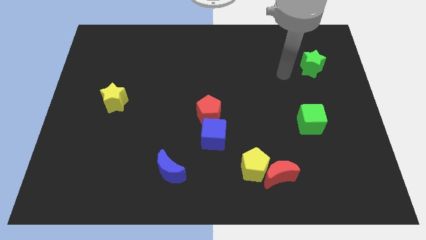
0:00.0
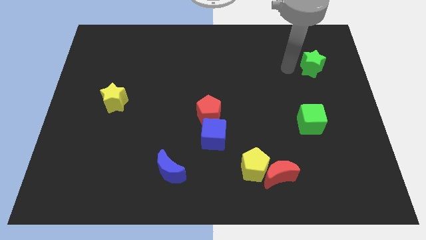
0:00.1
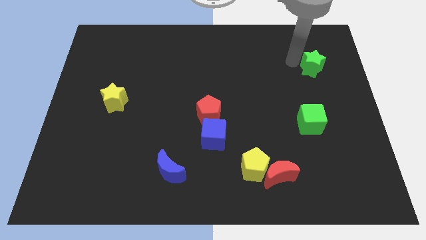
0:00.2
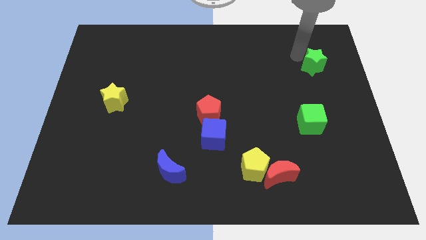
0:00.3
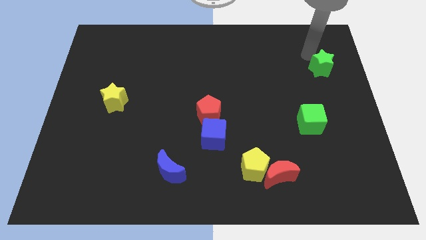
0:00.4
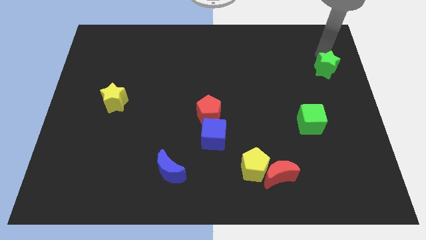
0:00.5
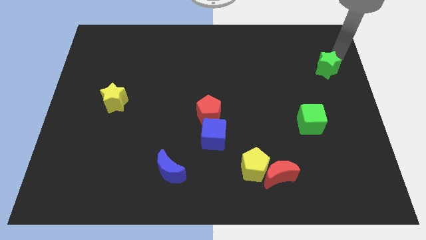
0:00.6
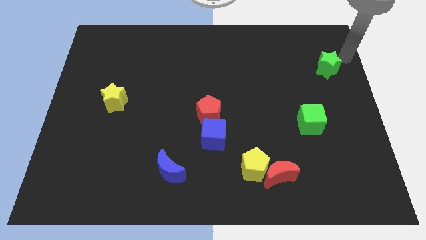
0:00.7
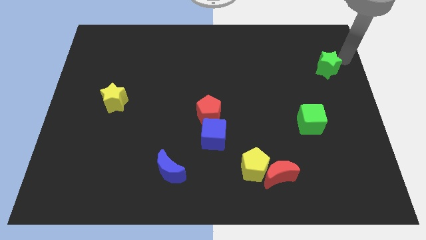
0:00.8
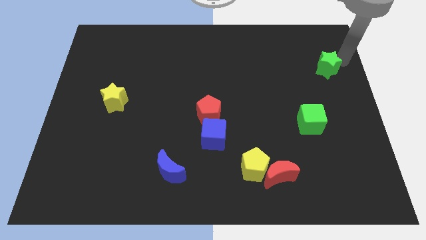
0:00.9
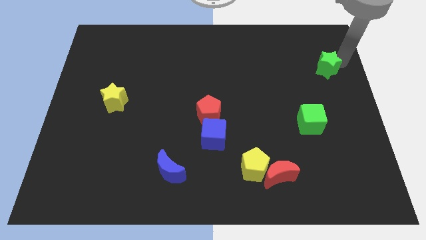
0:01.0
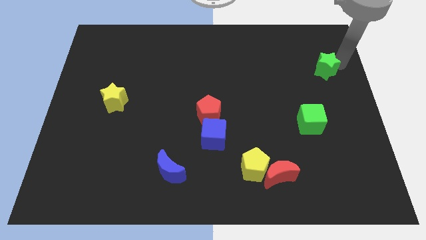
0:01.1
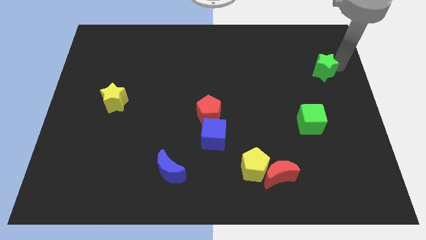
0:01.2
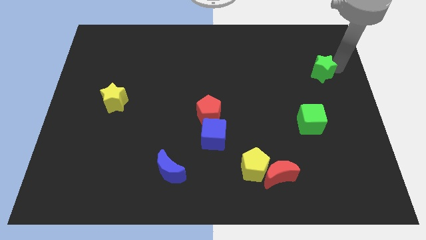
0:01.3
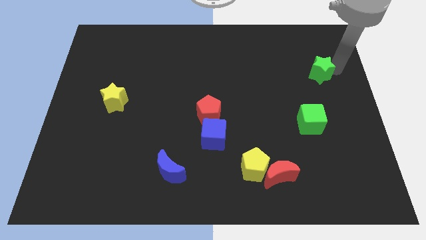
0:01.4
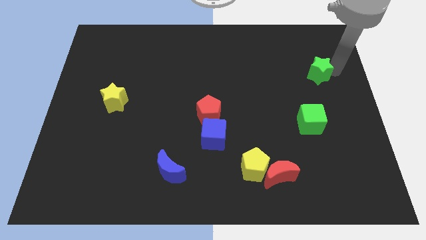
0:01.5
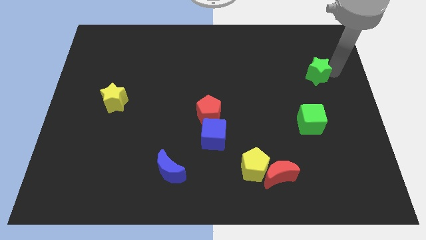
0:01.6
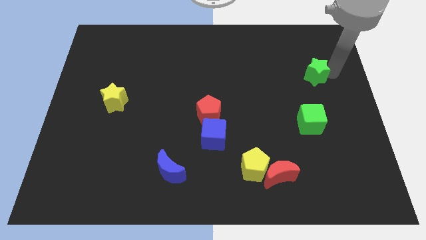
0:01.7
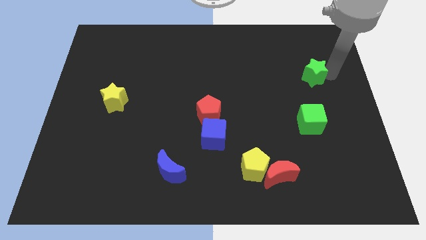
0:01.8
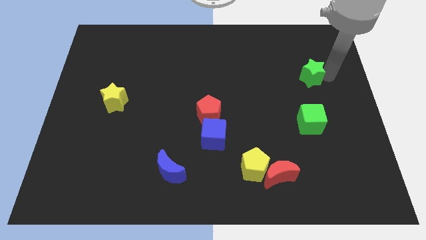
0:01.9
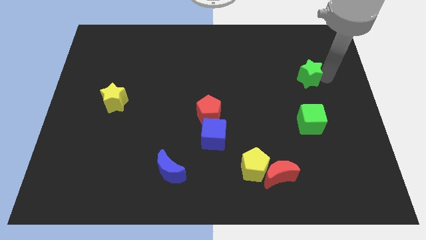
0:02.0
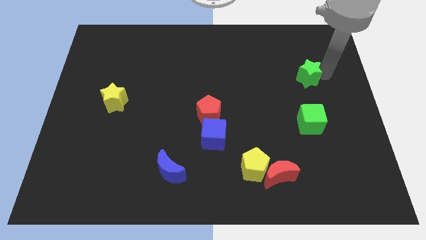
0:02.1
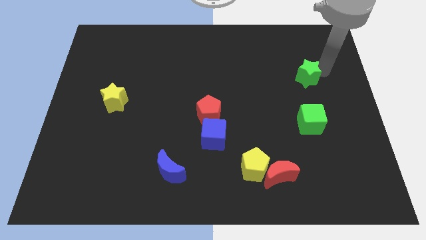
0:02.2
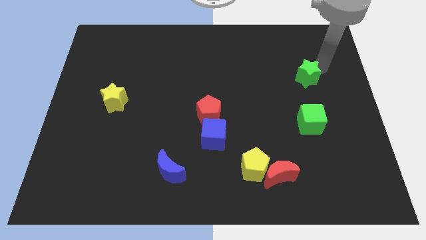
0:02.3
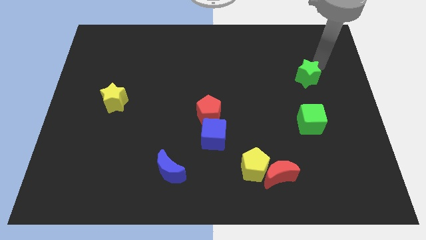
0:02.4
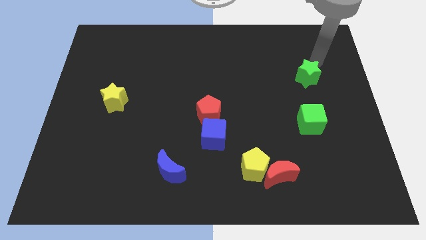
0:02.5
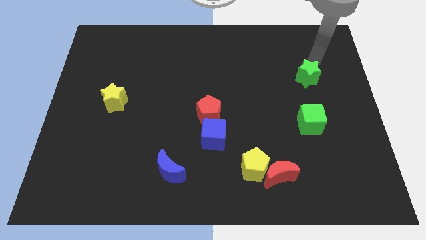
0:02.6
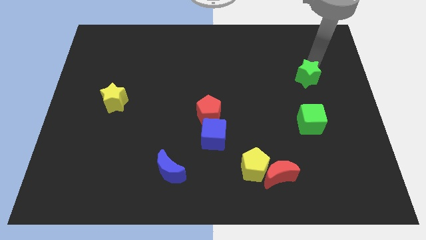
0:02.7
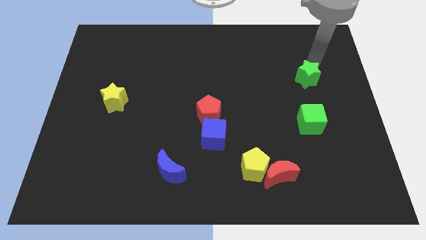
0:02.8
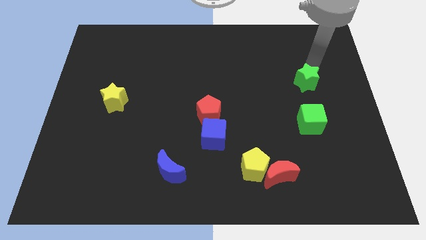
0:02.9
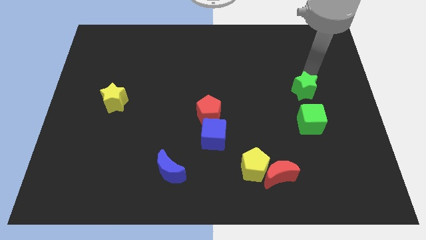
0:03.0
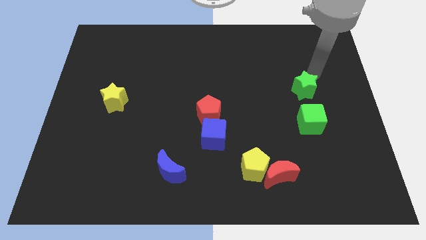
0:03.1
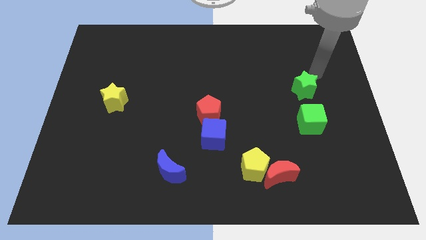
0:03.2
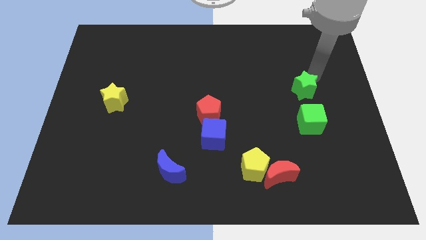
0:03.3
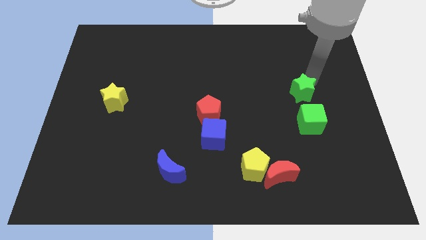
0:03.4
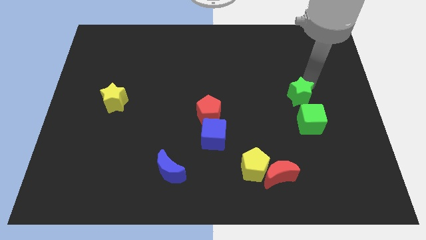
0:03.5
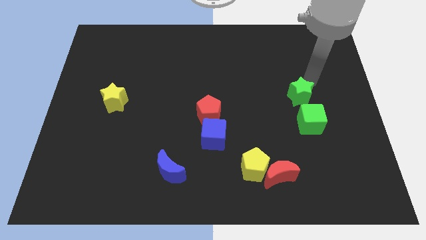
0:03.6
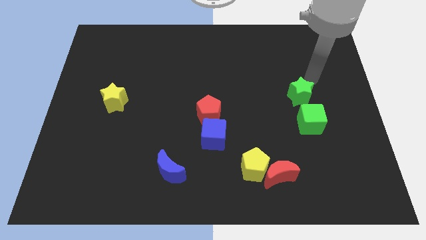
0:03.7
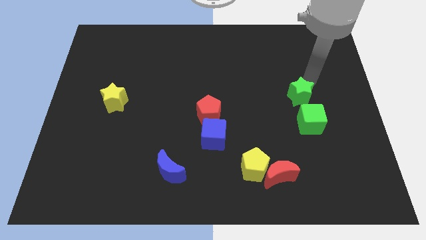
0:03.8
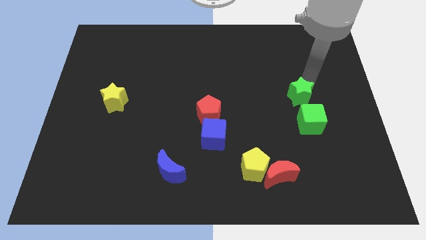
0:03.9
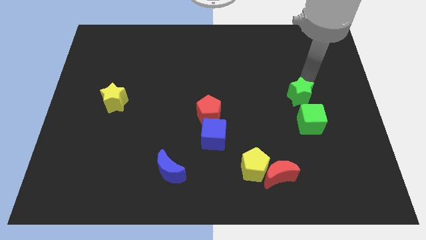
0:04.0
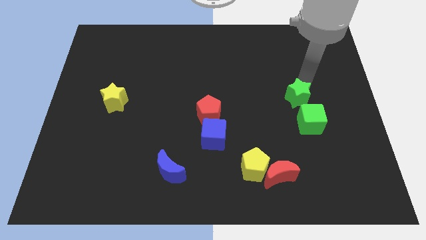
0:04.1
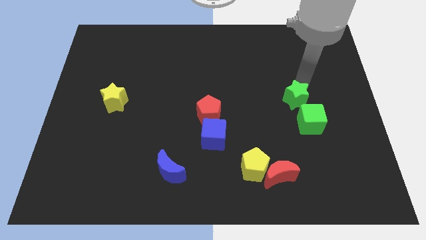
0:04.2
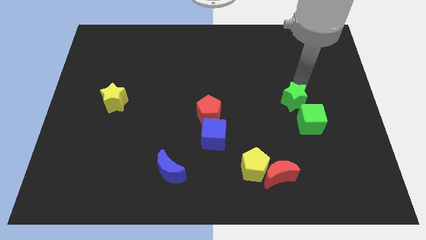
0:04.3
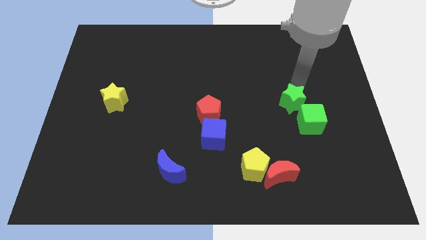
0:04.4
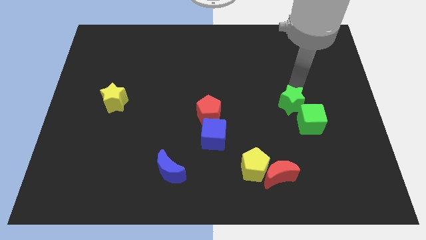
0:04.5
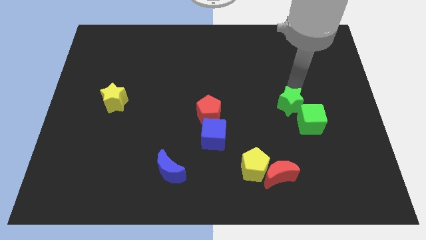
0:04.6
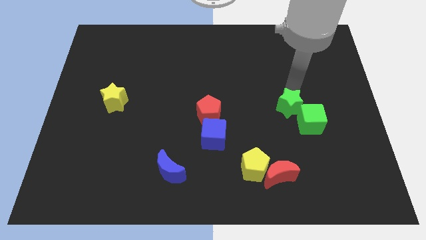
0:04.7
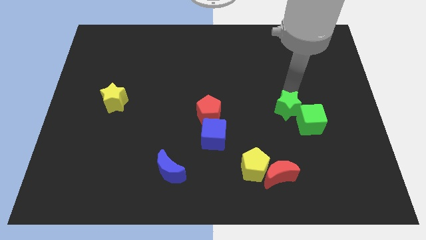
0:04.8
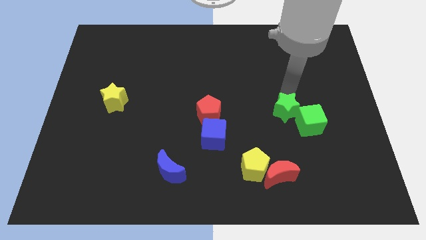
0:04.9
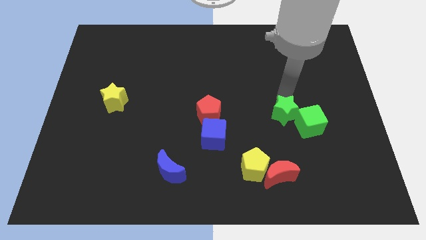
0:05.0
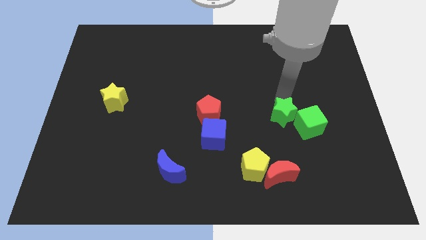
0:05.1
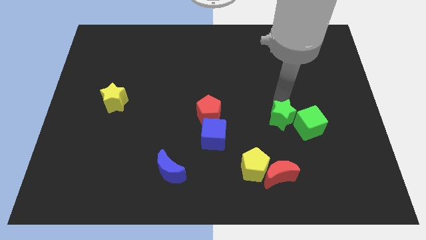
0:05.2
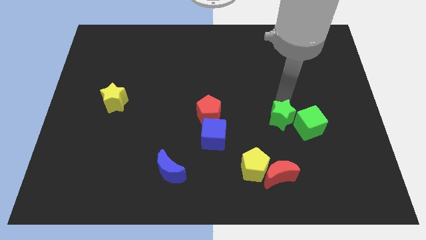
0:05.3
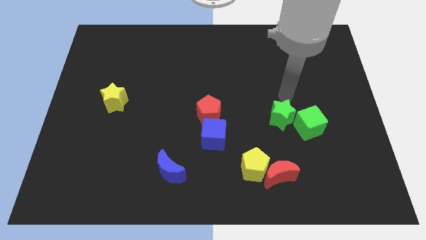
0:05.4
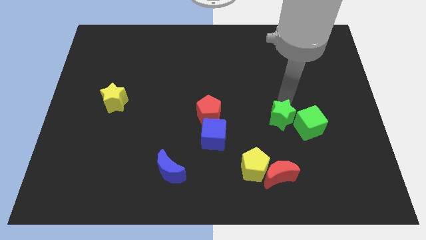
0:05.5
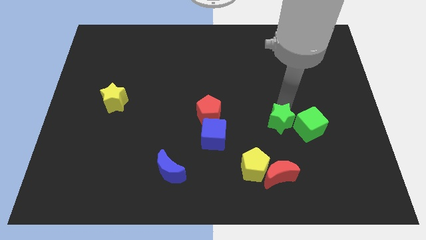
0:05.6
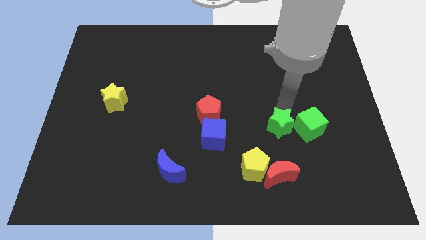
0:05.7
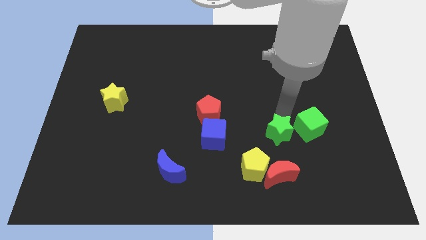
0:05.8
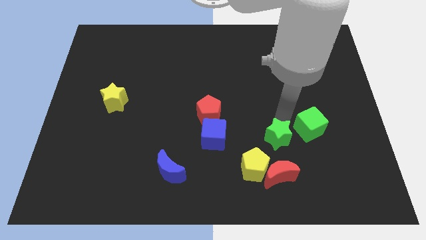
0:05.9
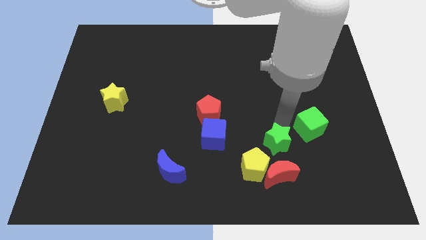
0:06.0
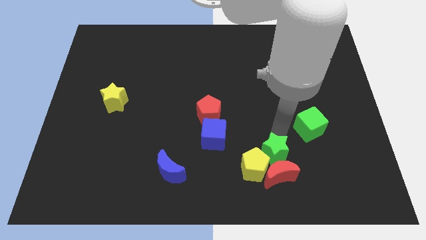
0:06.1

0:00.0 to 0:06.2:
put the green star to the red moon

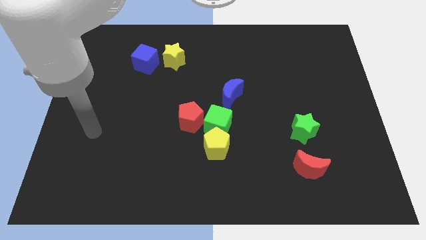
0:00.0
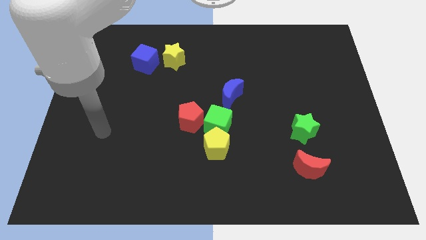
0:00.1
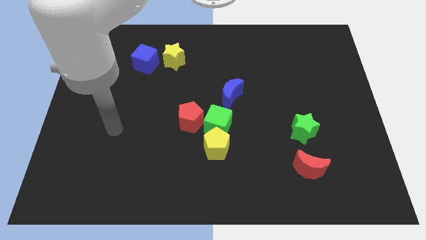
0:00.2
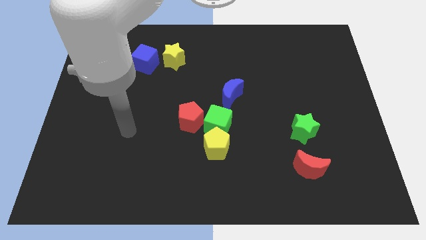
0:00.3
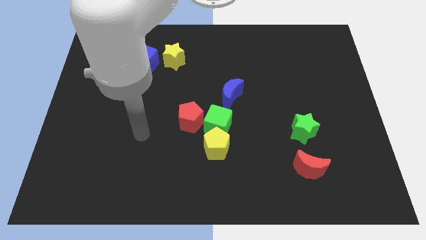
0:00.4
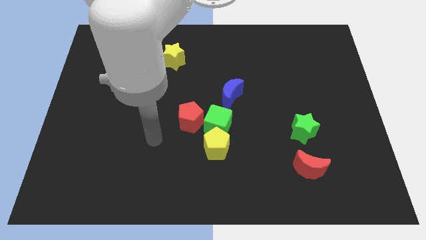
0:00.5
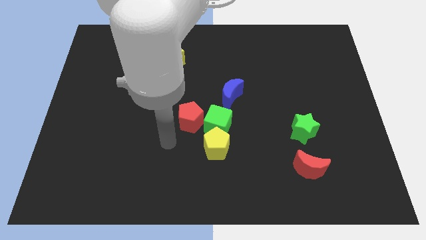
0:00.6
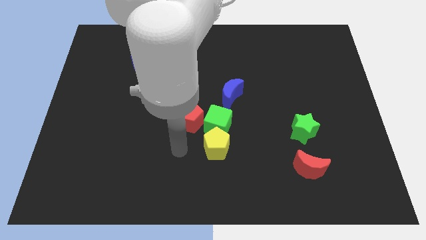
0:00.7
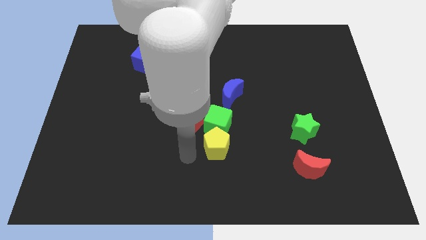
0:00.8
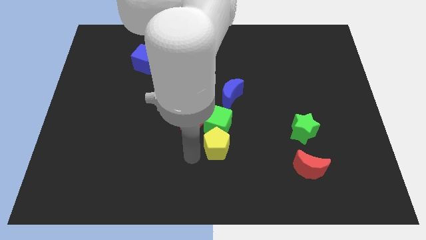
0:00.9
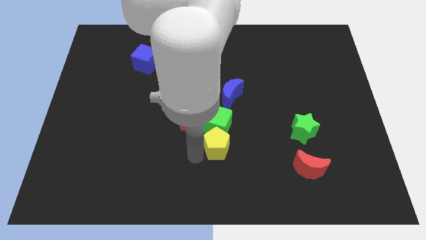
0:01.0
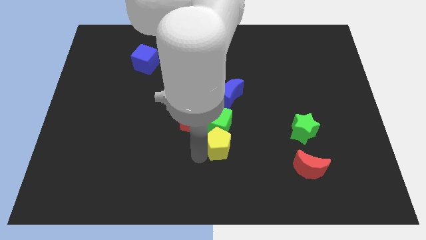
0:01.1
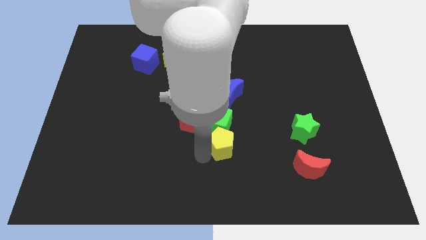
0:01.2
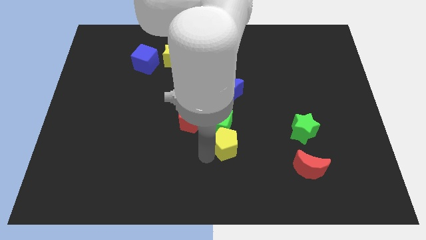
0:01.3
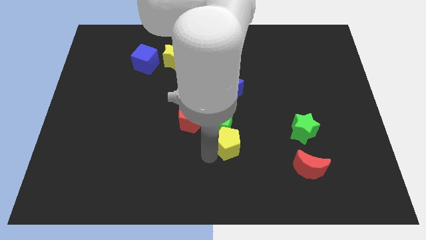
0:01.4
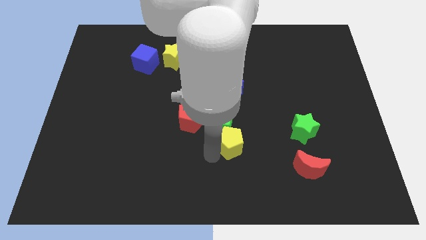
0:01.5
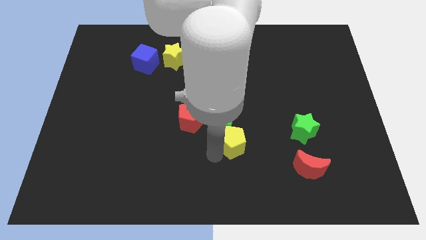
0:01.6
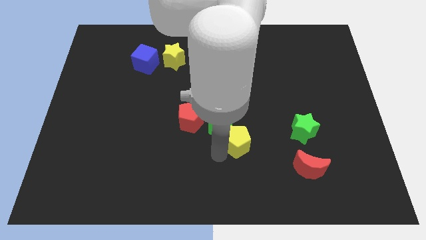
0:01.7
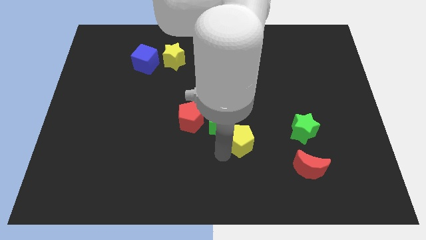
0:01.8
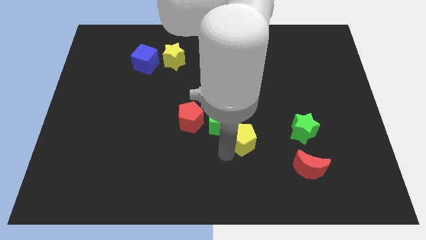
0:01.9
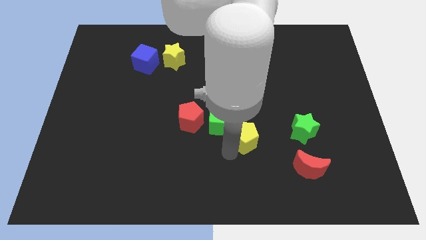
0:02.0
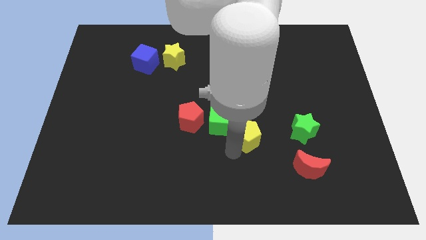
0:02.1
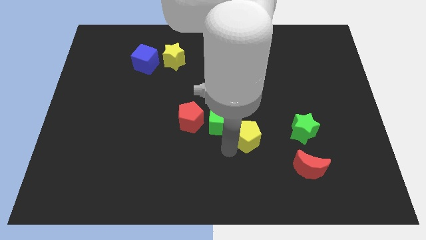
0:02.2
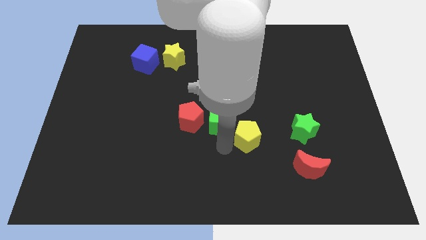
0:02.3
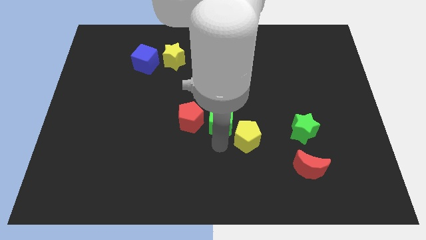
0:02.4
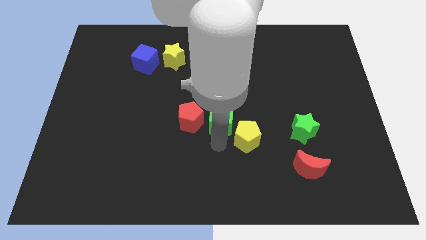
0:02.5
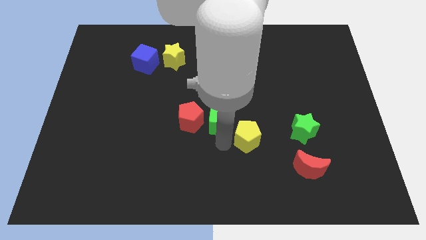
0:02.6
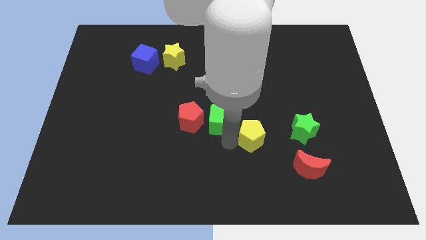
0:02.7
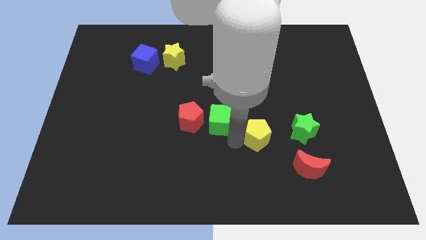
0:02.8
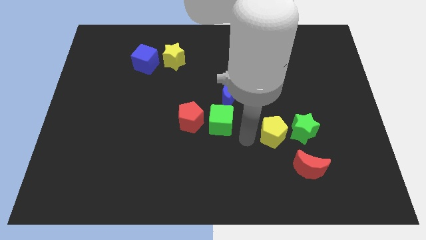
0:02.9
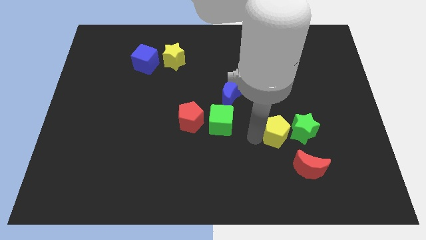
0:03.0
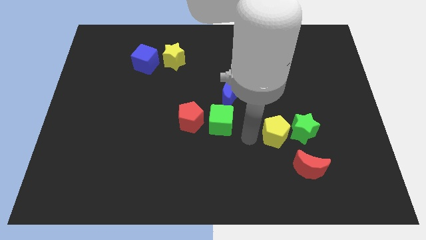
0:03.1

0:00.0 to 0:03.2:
move the yellow pentagon next to the green star
